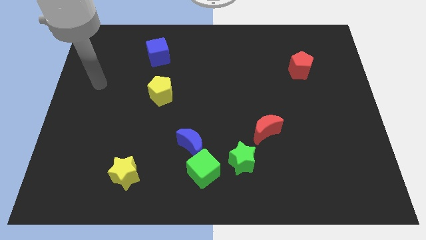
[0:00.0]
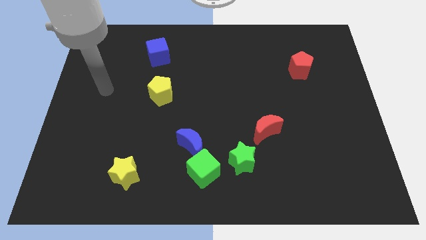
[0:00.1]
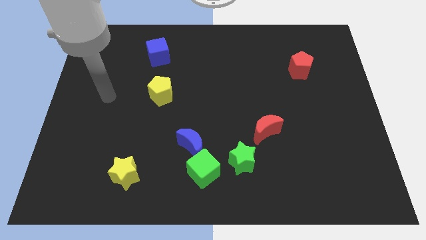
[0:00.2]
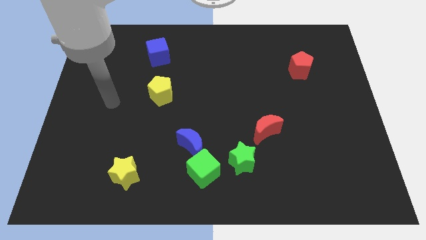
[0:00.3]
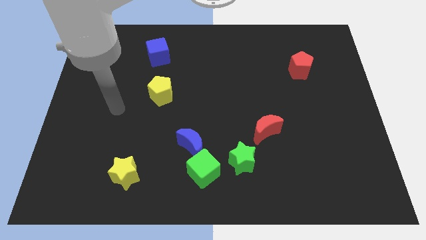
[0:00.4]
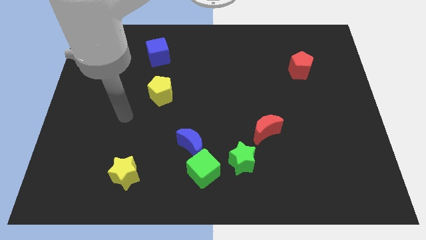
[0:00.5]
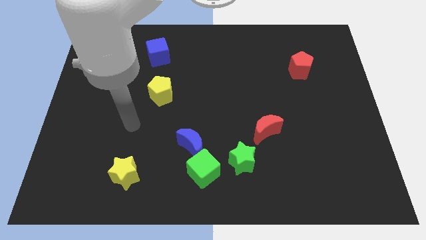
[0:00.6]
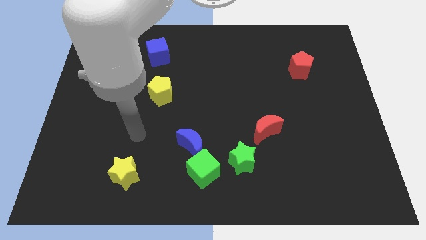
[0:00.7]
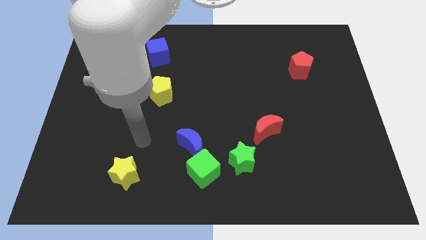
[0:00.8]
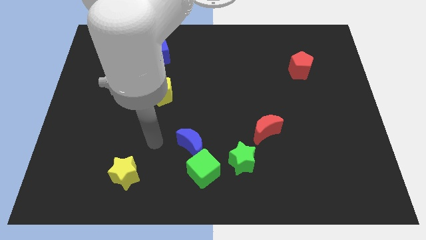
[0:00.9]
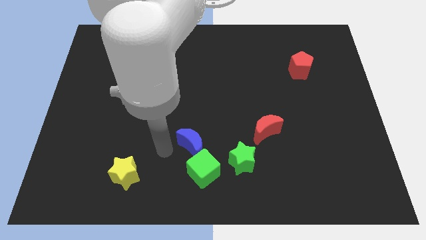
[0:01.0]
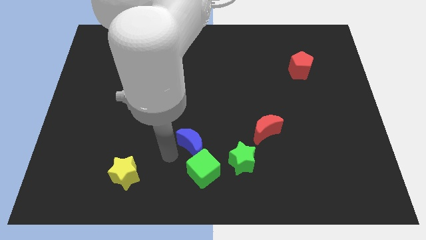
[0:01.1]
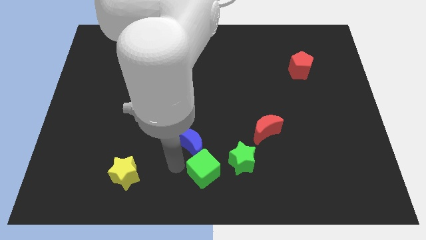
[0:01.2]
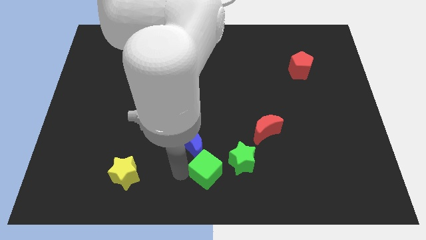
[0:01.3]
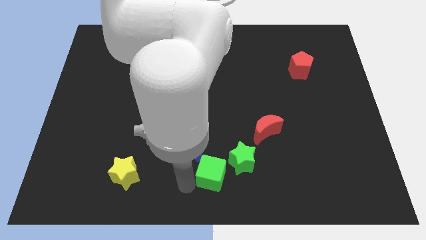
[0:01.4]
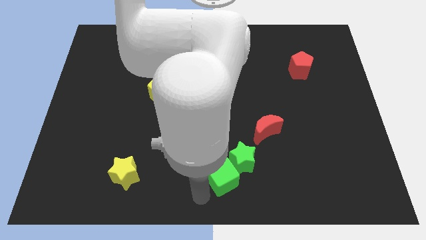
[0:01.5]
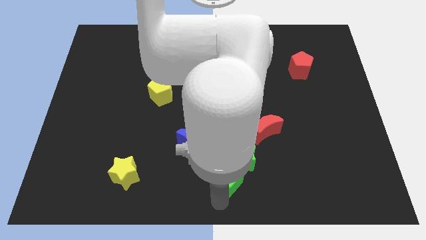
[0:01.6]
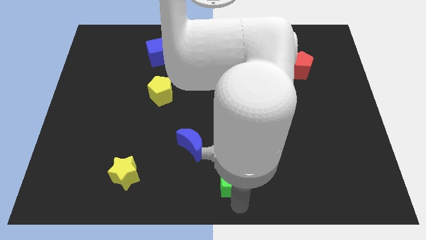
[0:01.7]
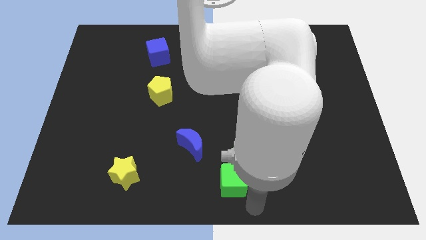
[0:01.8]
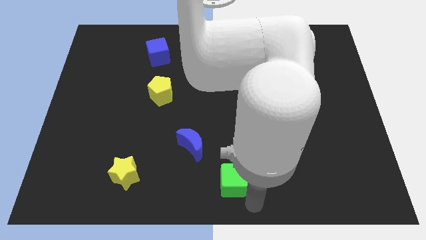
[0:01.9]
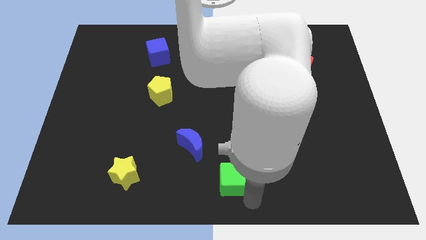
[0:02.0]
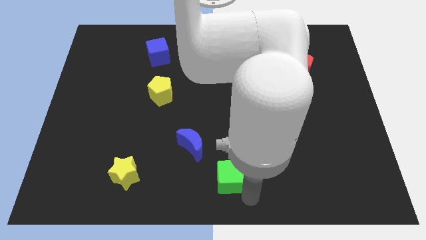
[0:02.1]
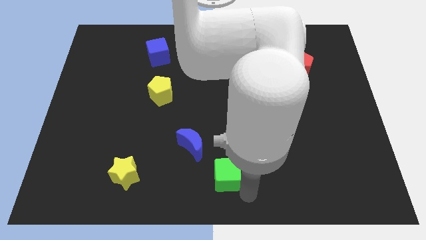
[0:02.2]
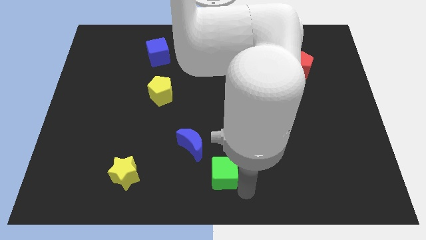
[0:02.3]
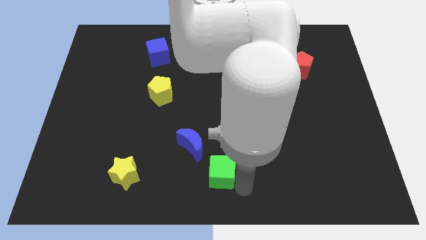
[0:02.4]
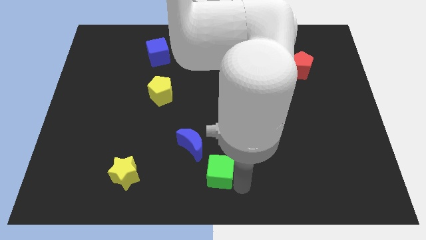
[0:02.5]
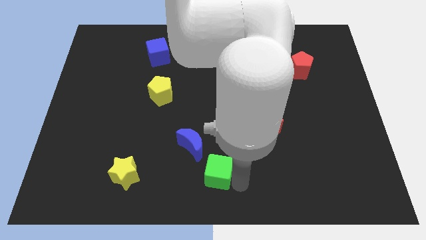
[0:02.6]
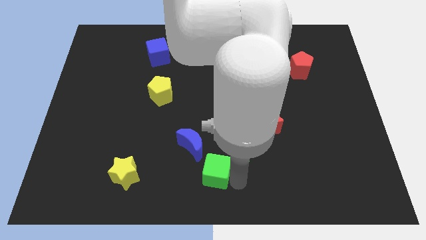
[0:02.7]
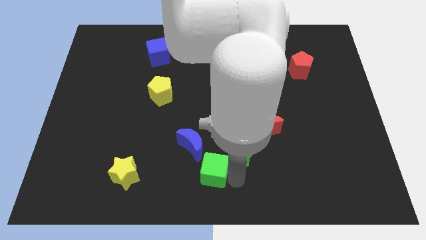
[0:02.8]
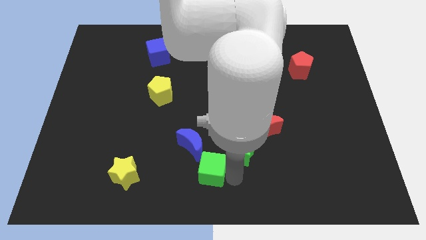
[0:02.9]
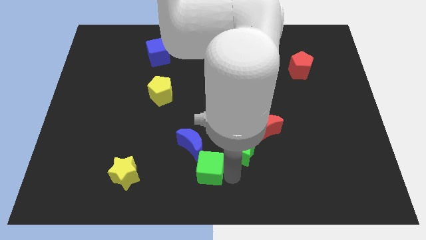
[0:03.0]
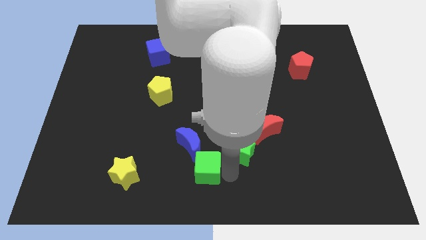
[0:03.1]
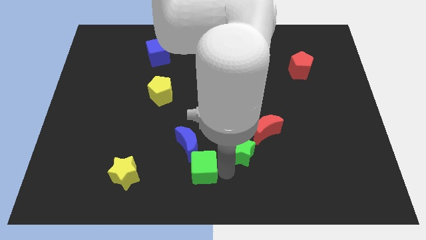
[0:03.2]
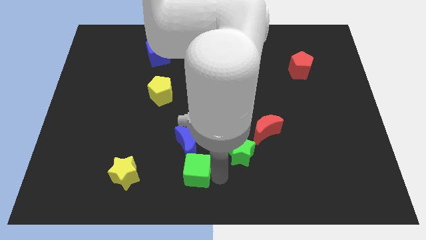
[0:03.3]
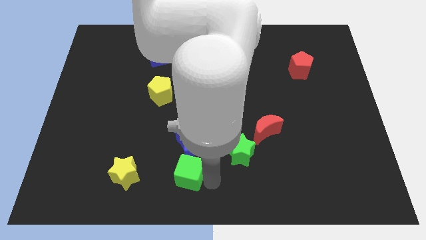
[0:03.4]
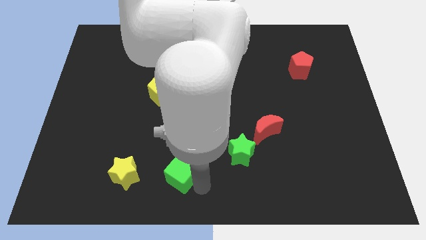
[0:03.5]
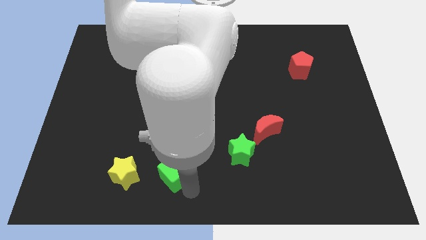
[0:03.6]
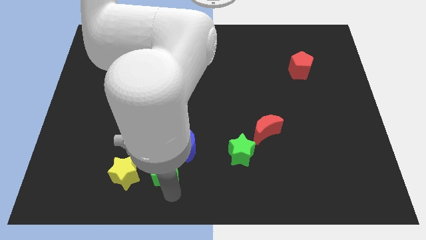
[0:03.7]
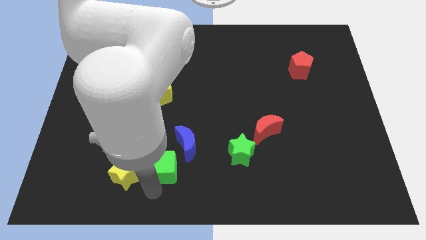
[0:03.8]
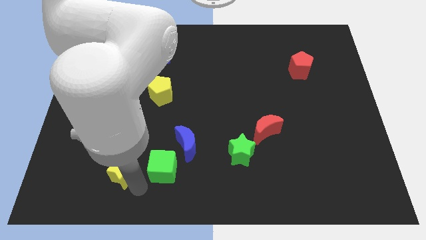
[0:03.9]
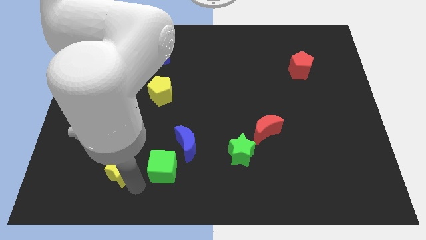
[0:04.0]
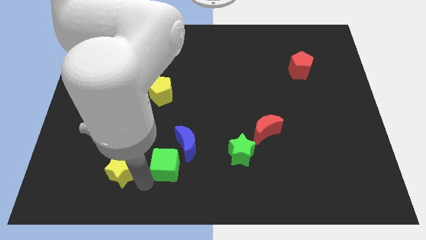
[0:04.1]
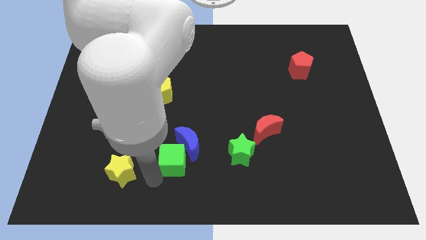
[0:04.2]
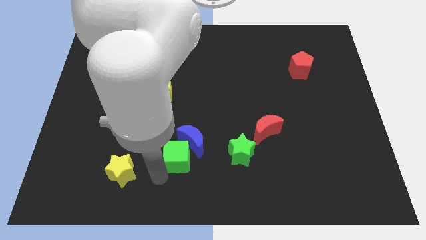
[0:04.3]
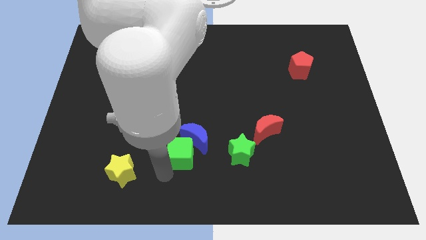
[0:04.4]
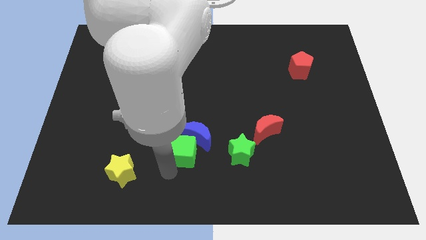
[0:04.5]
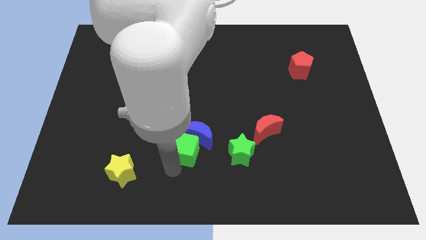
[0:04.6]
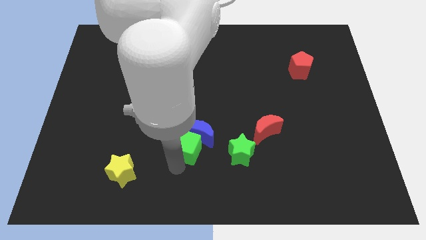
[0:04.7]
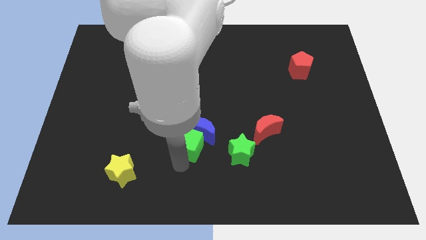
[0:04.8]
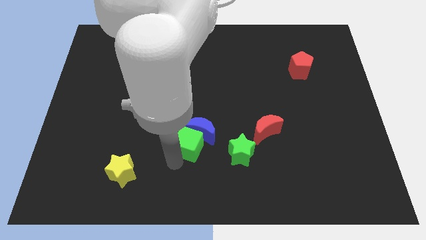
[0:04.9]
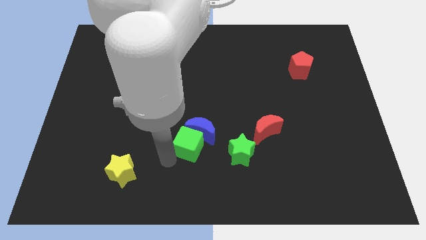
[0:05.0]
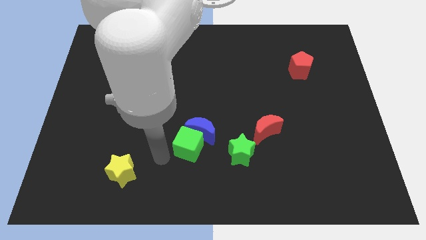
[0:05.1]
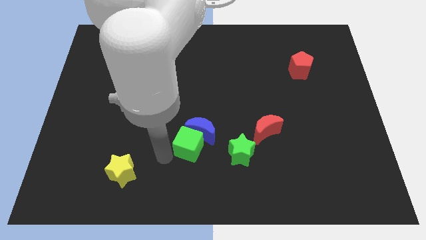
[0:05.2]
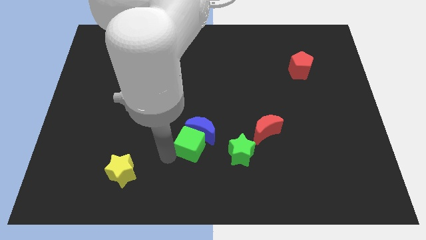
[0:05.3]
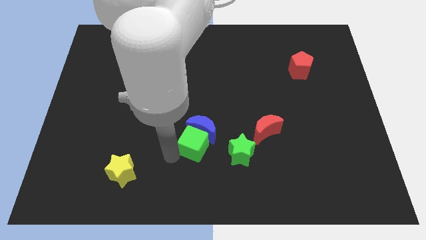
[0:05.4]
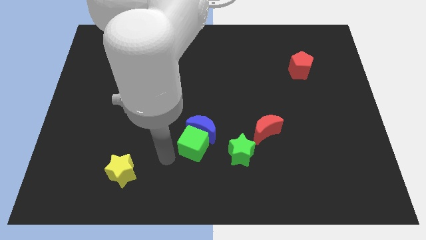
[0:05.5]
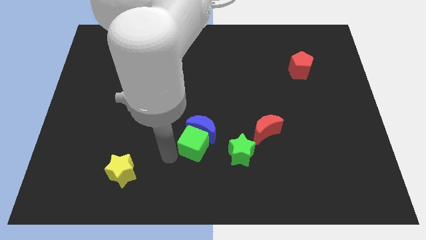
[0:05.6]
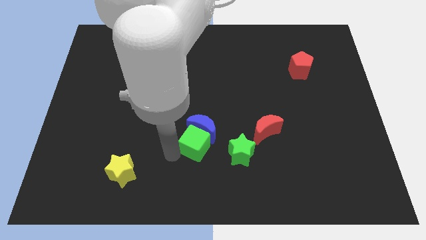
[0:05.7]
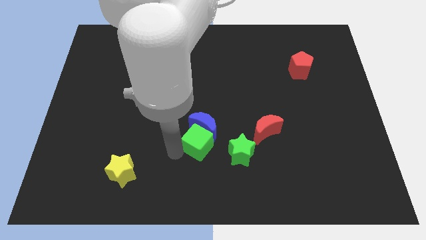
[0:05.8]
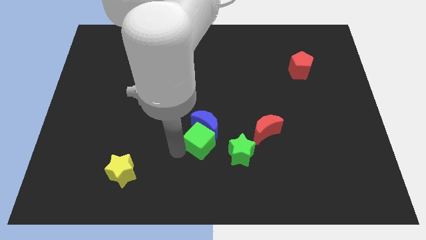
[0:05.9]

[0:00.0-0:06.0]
slightly move the green cube up

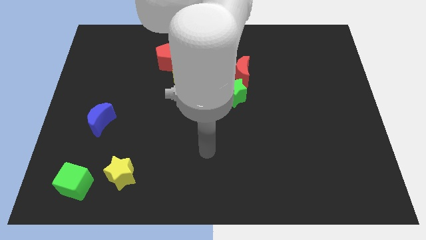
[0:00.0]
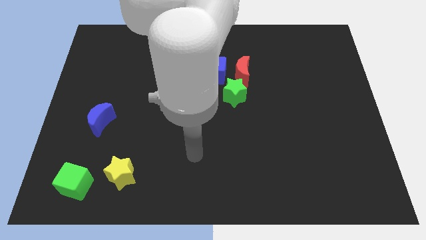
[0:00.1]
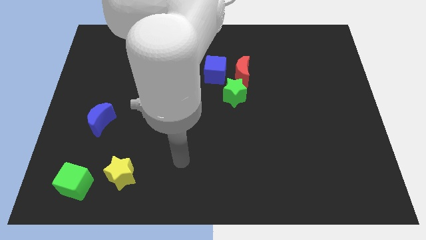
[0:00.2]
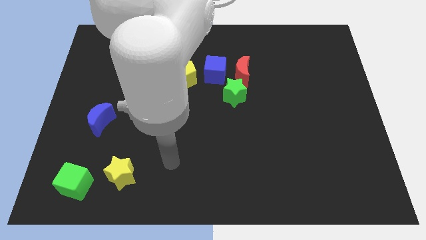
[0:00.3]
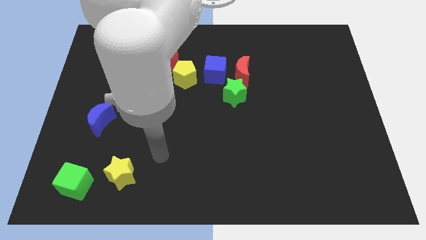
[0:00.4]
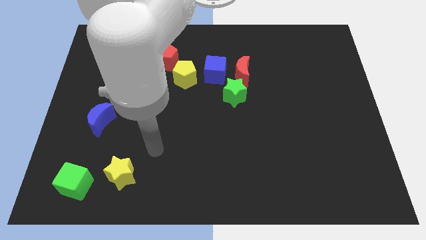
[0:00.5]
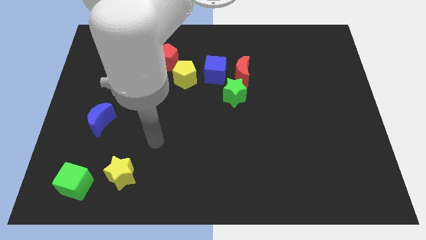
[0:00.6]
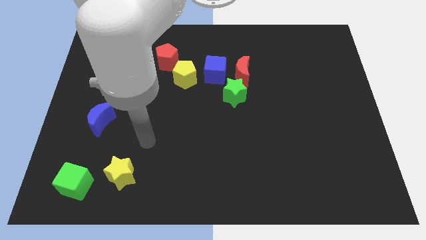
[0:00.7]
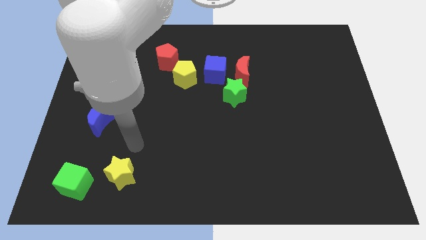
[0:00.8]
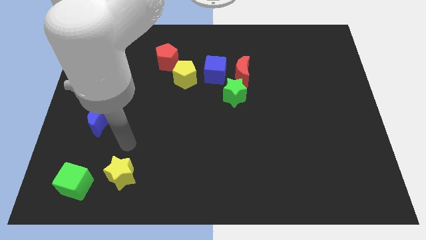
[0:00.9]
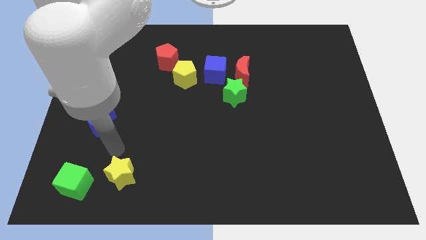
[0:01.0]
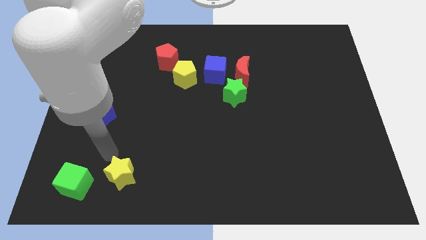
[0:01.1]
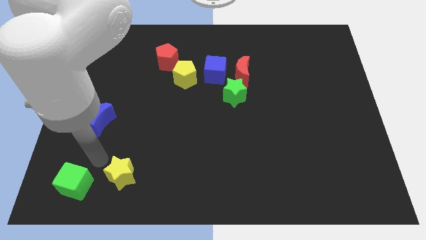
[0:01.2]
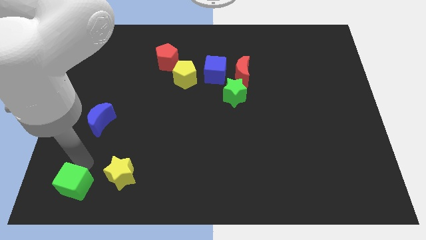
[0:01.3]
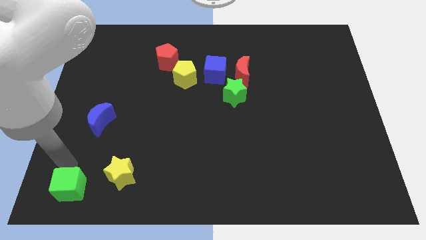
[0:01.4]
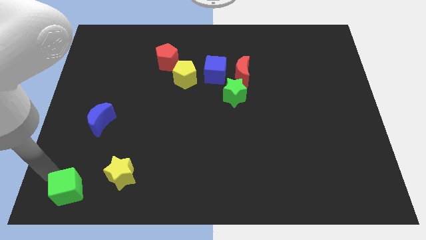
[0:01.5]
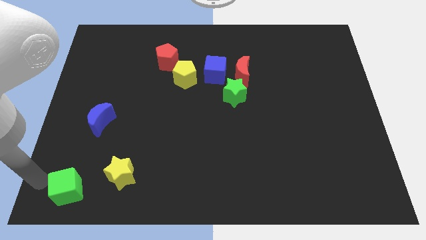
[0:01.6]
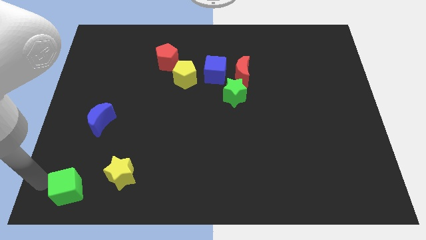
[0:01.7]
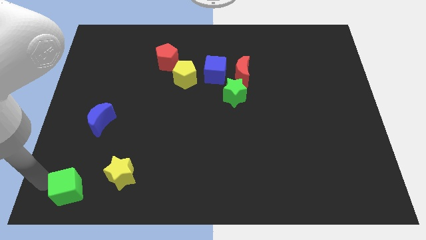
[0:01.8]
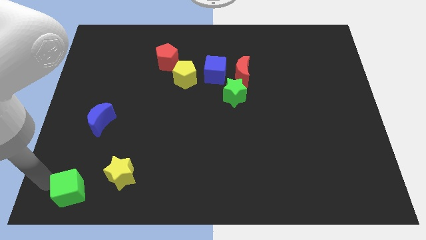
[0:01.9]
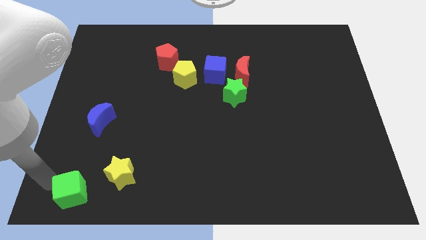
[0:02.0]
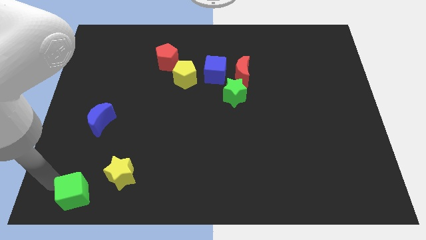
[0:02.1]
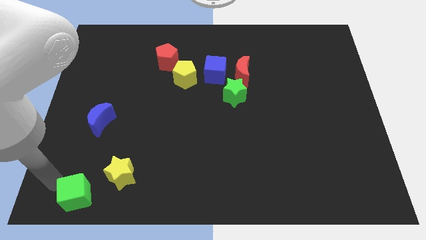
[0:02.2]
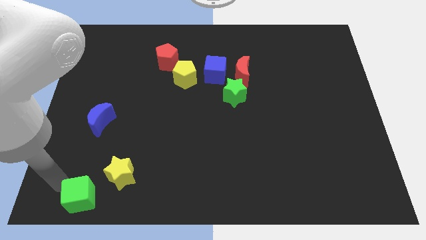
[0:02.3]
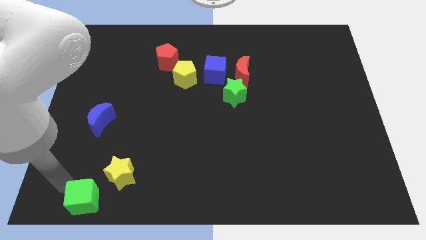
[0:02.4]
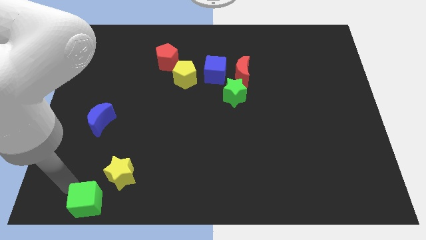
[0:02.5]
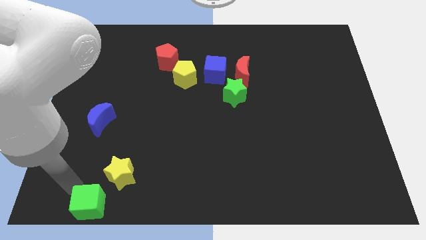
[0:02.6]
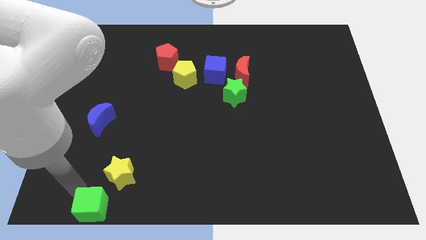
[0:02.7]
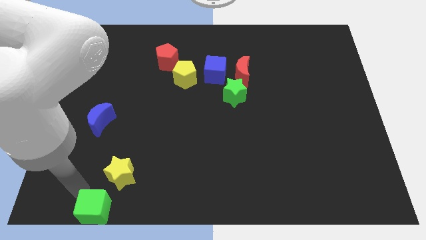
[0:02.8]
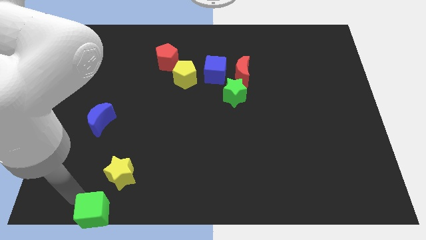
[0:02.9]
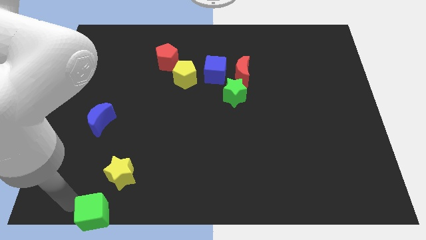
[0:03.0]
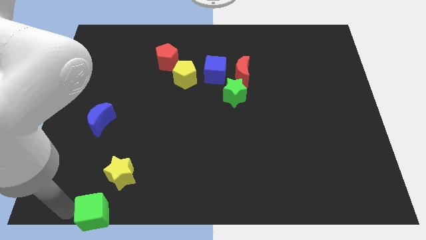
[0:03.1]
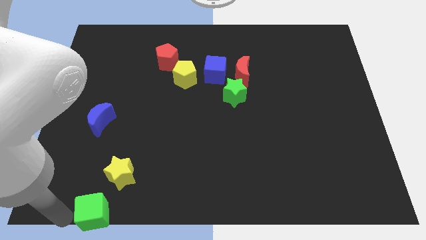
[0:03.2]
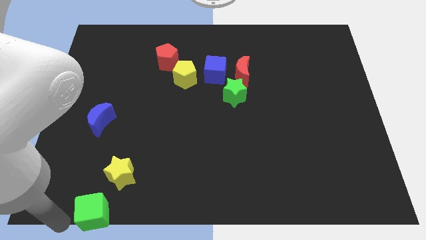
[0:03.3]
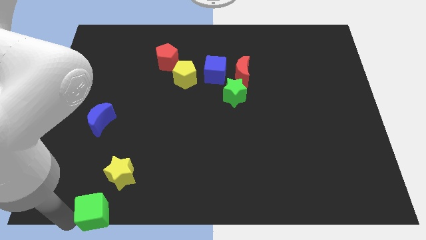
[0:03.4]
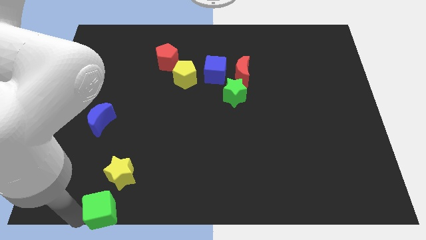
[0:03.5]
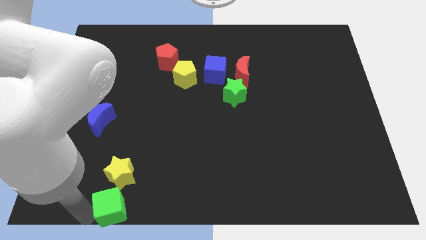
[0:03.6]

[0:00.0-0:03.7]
slide the green cube to the right a little bit
